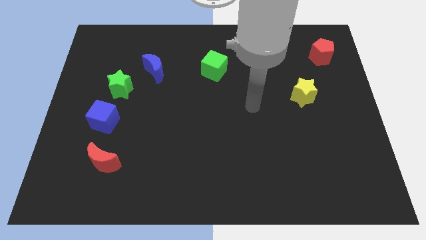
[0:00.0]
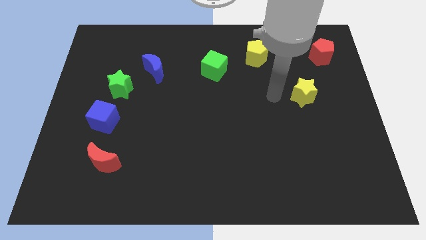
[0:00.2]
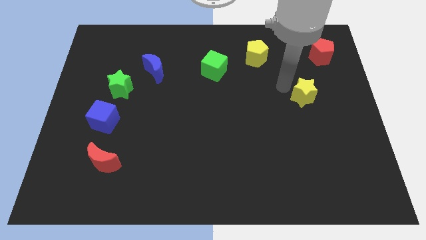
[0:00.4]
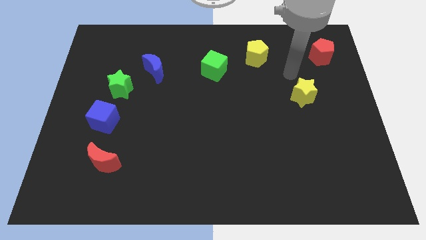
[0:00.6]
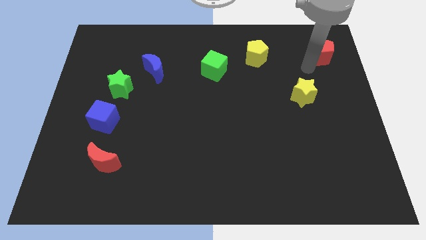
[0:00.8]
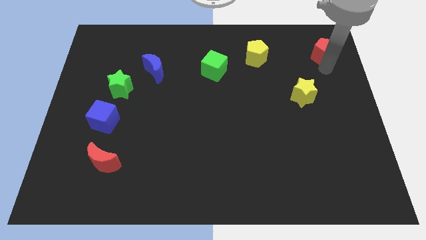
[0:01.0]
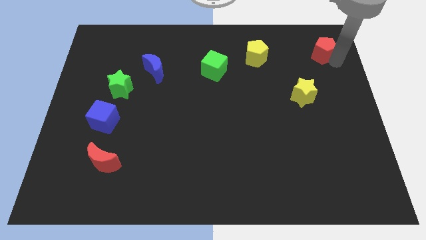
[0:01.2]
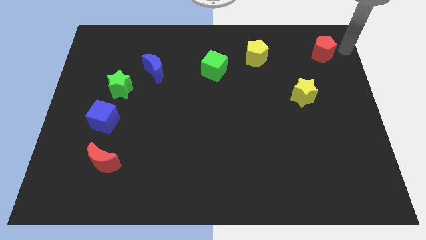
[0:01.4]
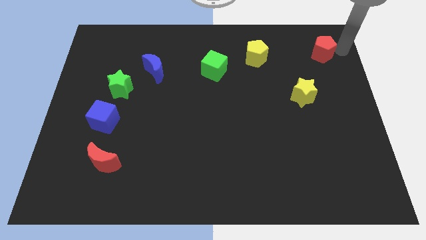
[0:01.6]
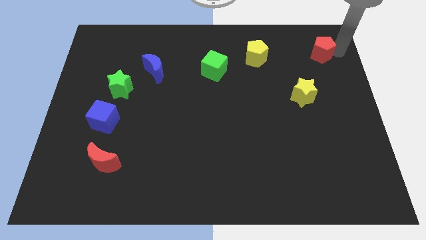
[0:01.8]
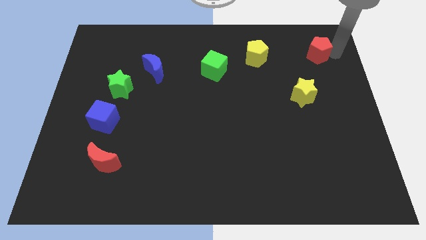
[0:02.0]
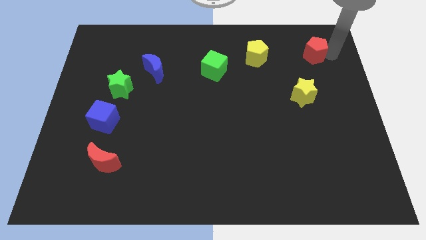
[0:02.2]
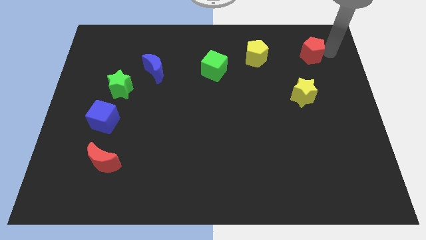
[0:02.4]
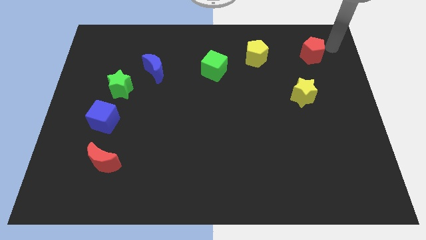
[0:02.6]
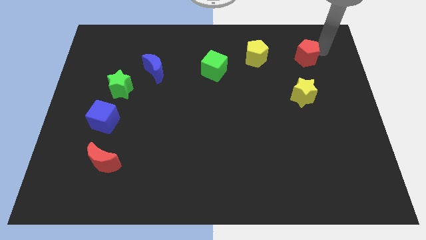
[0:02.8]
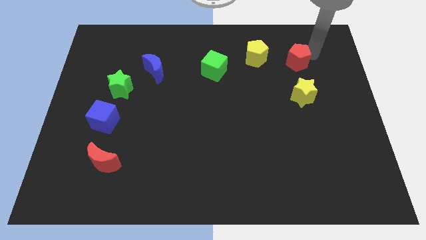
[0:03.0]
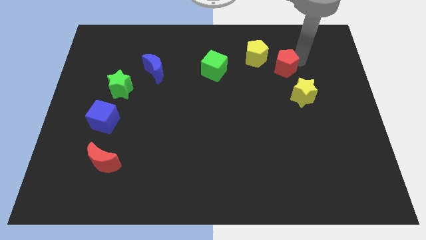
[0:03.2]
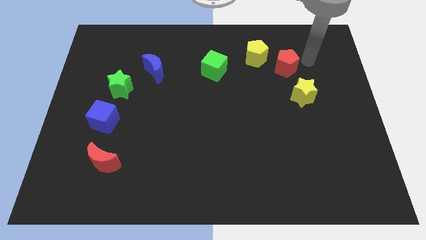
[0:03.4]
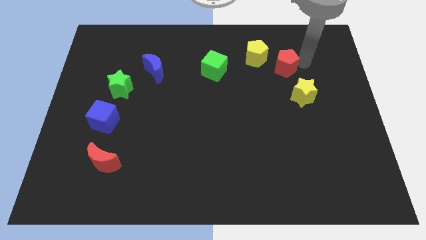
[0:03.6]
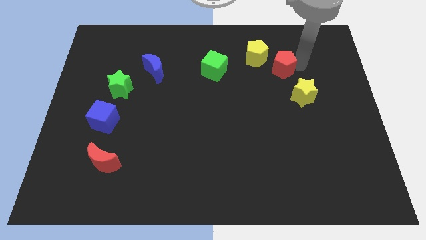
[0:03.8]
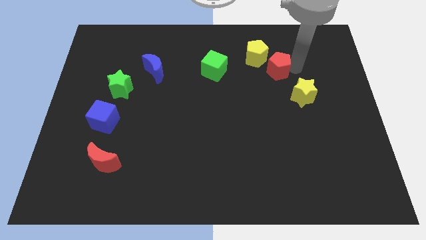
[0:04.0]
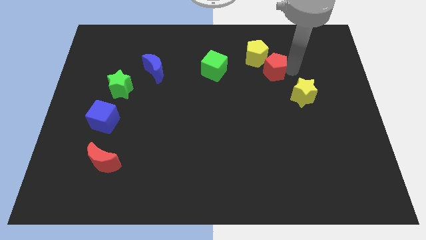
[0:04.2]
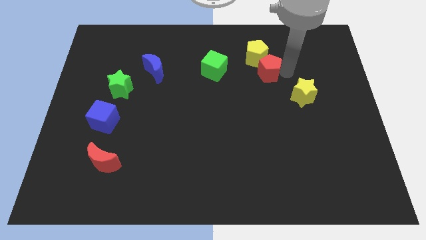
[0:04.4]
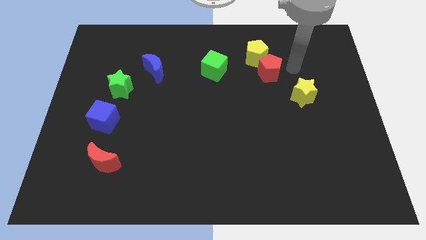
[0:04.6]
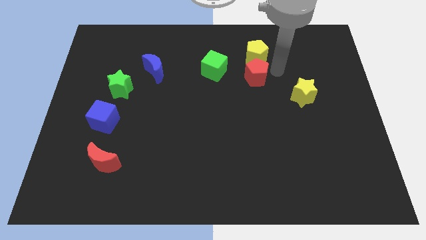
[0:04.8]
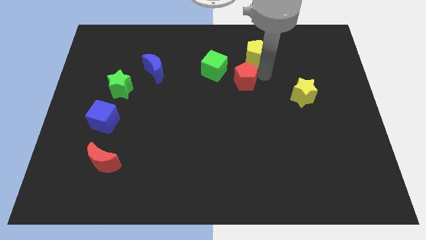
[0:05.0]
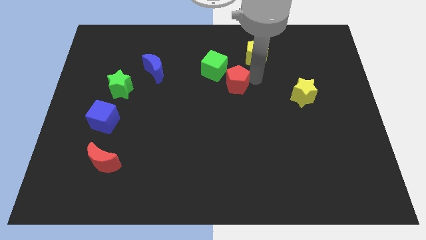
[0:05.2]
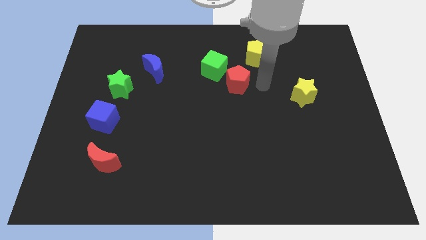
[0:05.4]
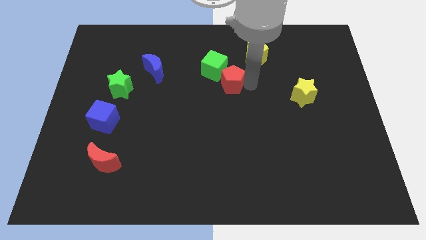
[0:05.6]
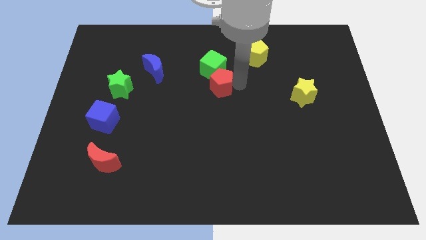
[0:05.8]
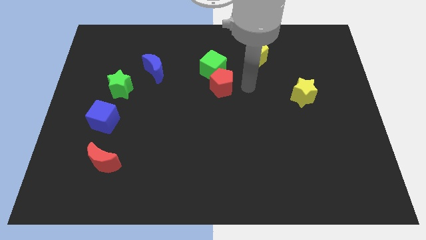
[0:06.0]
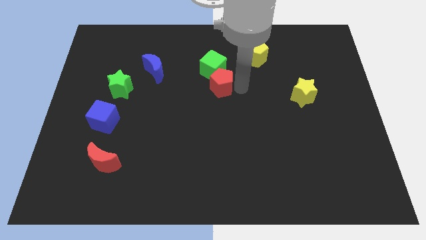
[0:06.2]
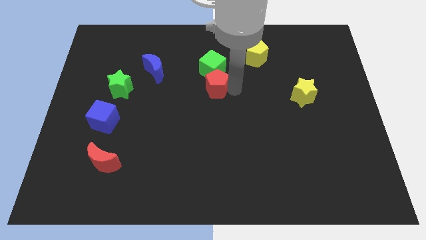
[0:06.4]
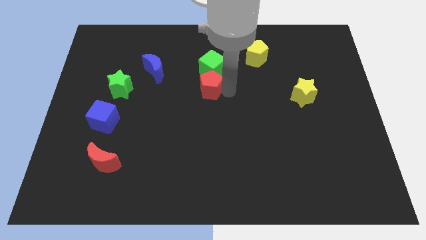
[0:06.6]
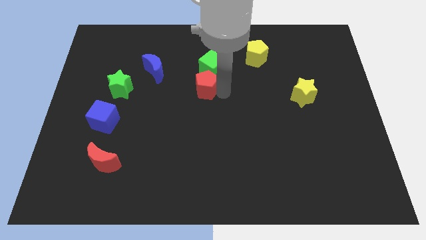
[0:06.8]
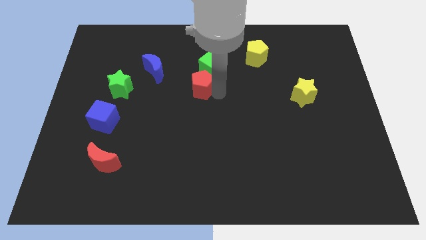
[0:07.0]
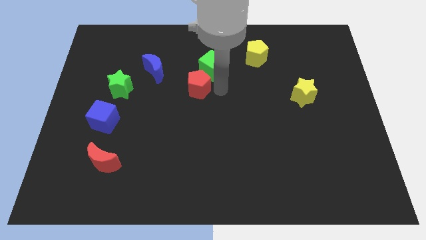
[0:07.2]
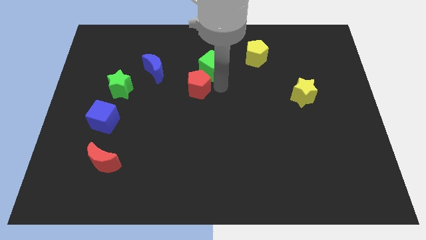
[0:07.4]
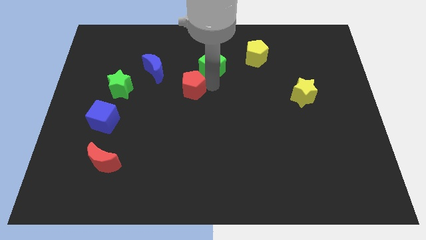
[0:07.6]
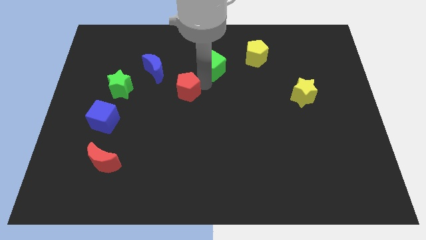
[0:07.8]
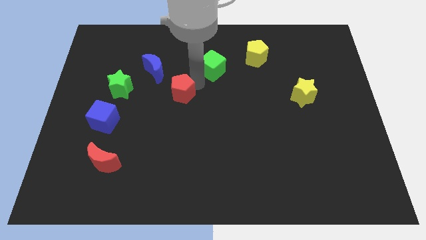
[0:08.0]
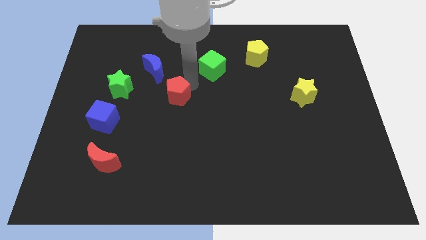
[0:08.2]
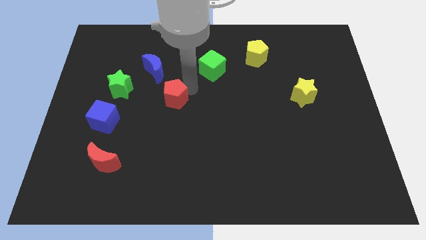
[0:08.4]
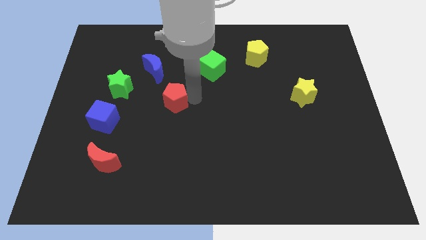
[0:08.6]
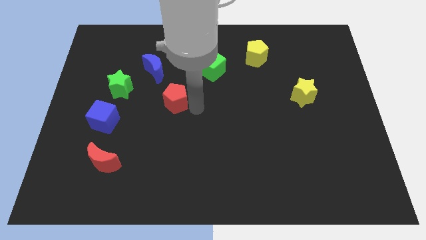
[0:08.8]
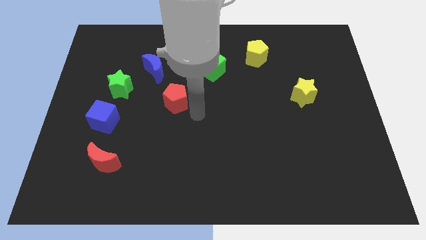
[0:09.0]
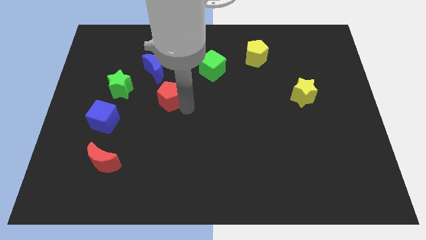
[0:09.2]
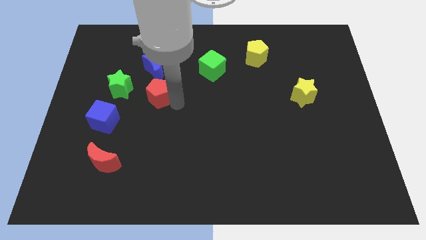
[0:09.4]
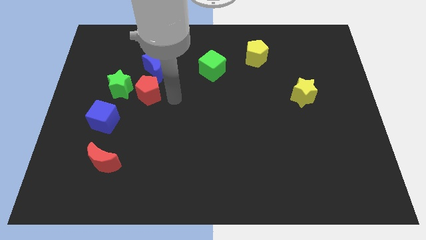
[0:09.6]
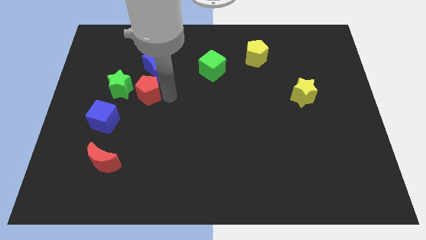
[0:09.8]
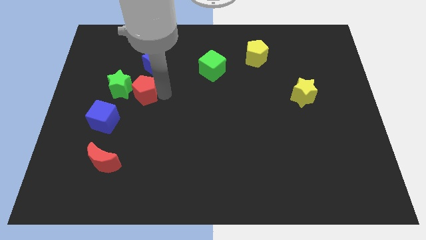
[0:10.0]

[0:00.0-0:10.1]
put the red pentagon to the green star

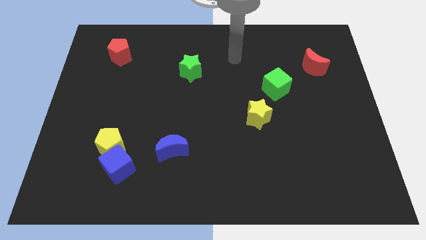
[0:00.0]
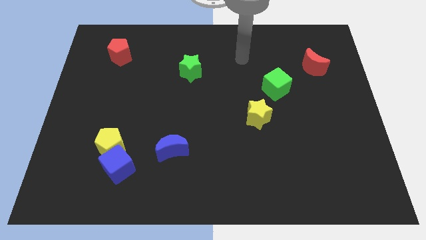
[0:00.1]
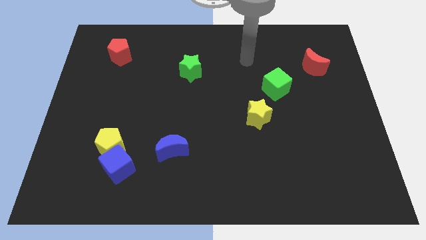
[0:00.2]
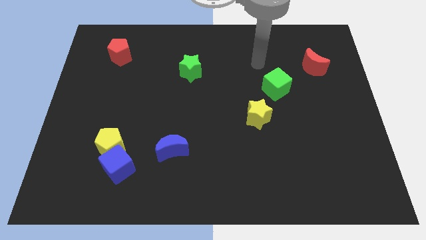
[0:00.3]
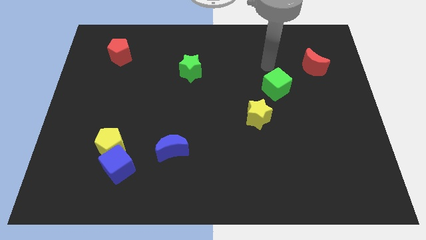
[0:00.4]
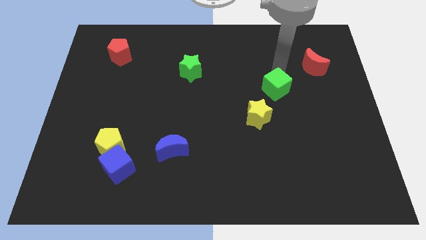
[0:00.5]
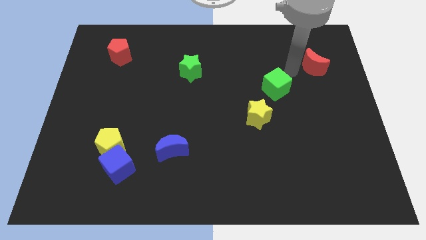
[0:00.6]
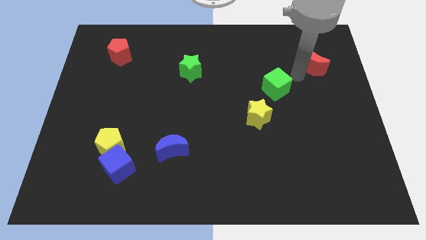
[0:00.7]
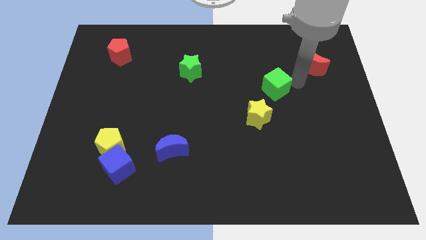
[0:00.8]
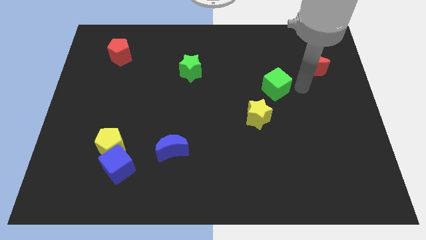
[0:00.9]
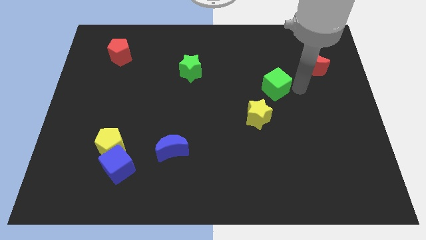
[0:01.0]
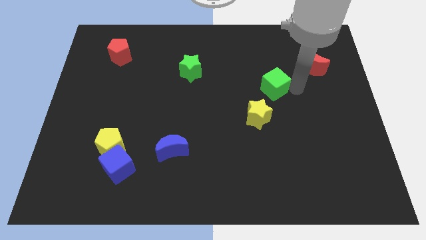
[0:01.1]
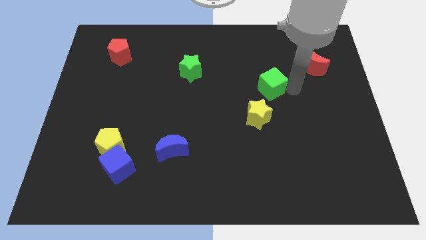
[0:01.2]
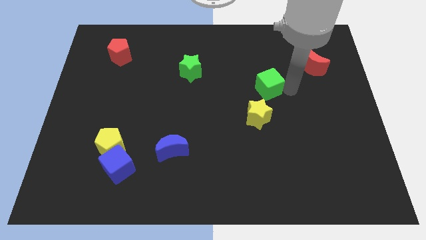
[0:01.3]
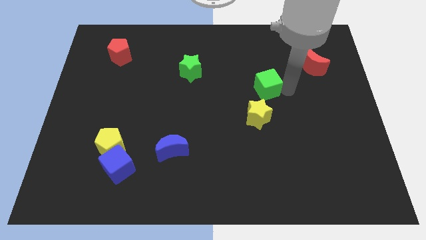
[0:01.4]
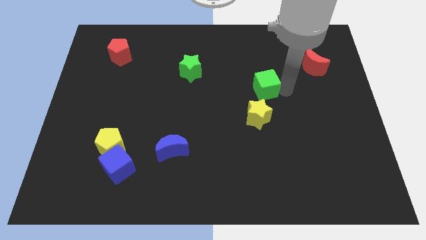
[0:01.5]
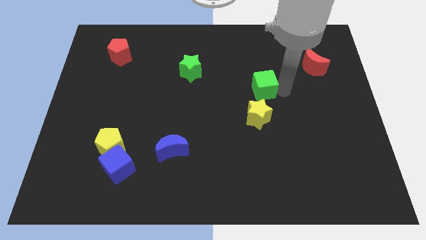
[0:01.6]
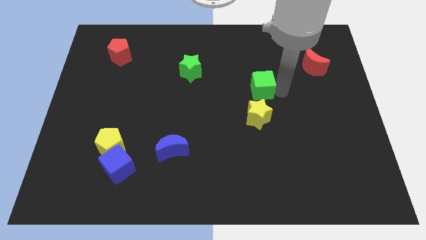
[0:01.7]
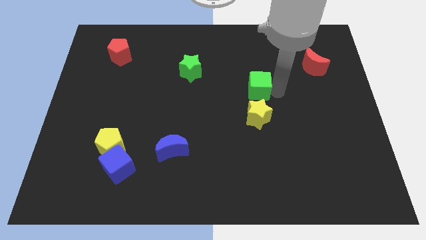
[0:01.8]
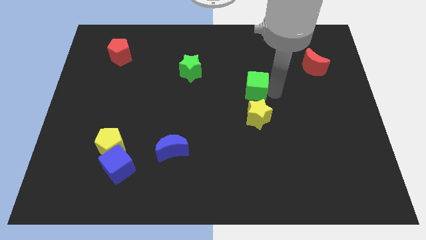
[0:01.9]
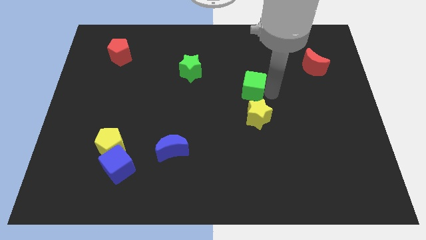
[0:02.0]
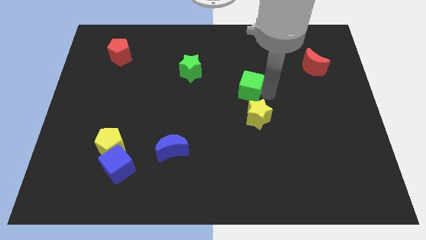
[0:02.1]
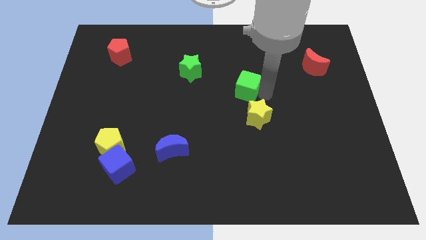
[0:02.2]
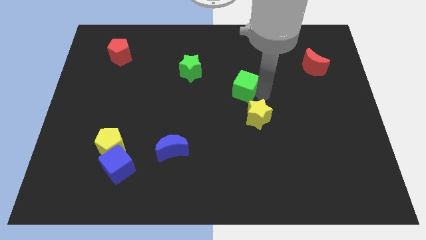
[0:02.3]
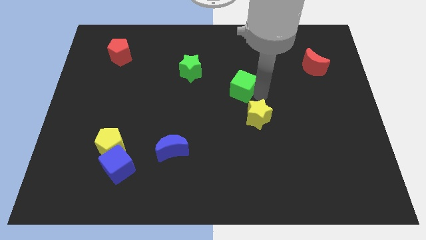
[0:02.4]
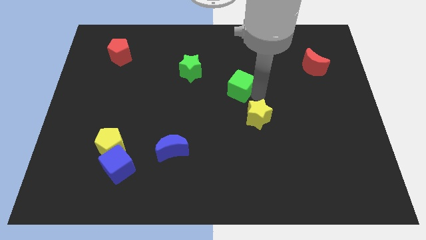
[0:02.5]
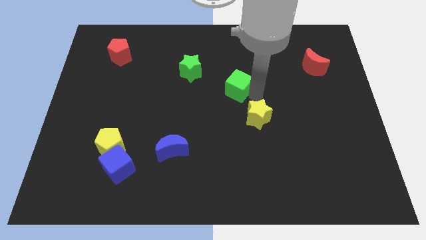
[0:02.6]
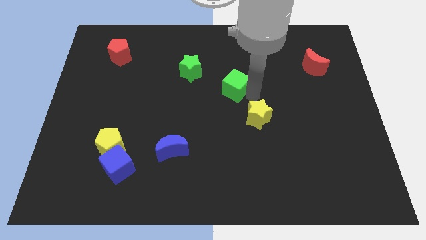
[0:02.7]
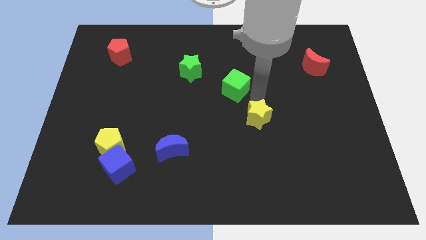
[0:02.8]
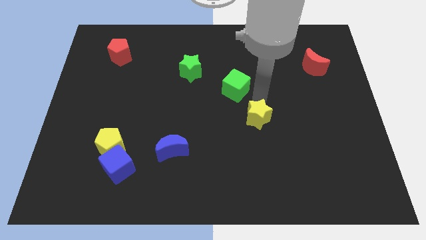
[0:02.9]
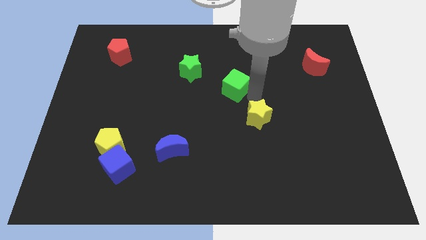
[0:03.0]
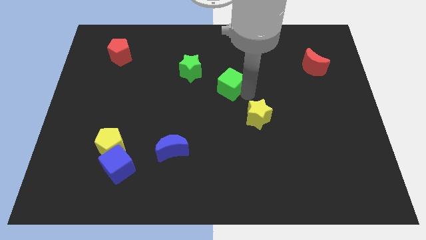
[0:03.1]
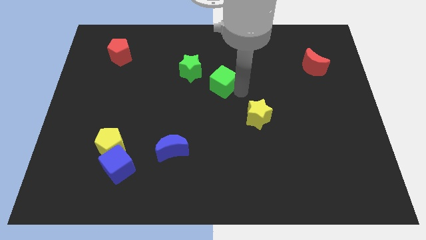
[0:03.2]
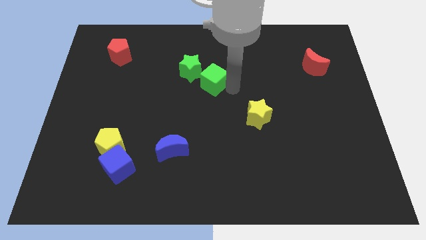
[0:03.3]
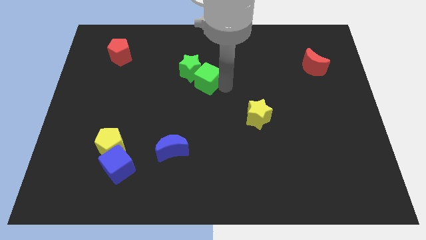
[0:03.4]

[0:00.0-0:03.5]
push the green cube close to the green star
